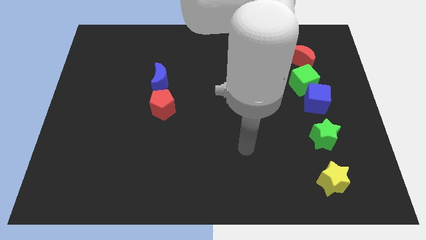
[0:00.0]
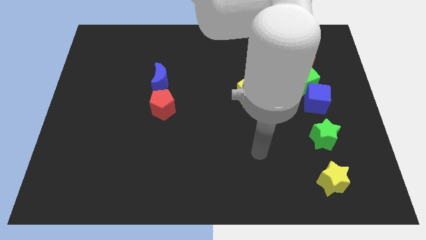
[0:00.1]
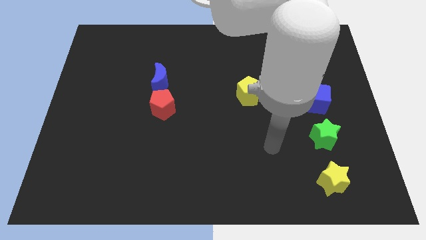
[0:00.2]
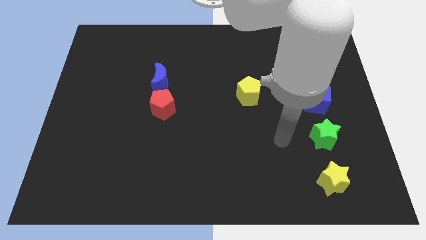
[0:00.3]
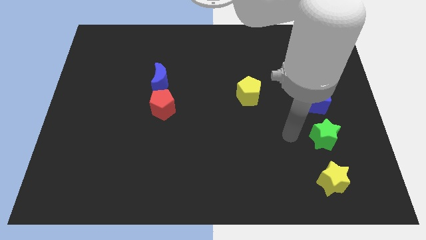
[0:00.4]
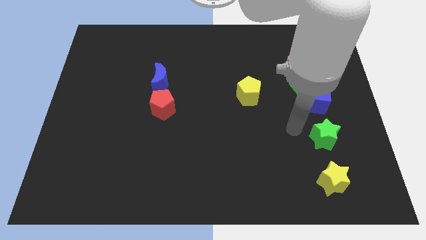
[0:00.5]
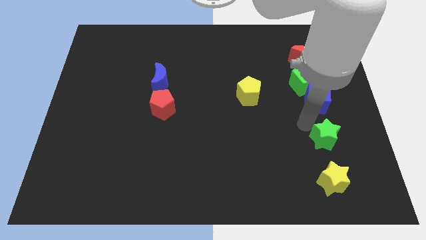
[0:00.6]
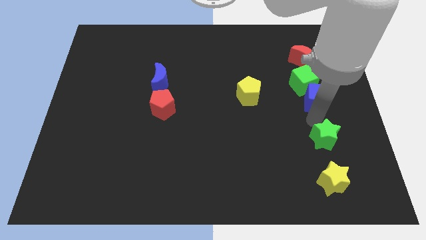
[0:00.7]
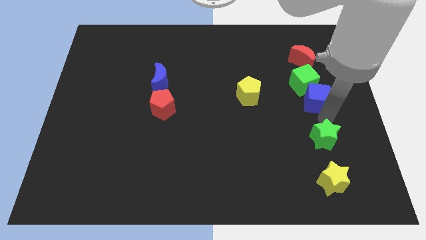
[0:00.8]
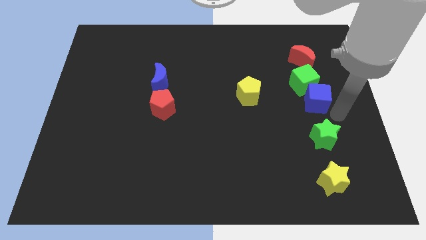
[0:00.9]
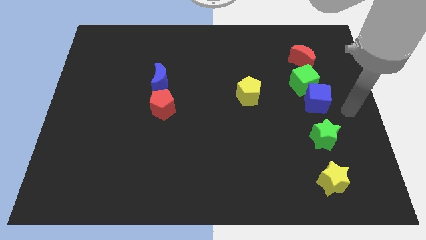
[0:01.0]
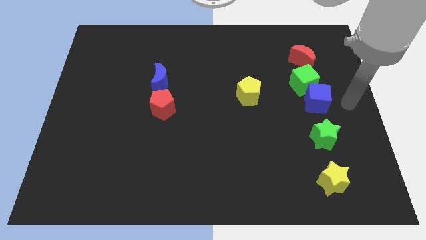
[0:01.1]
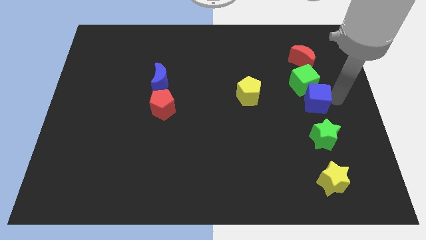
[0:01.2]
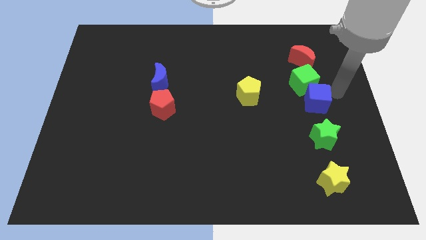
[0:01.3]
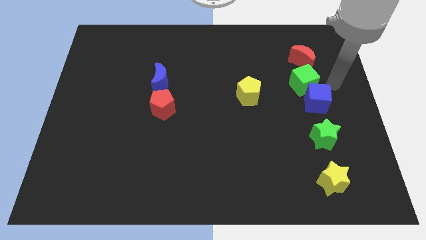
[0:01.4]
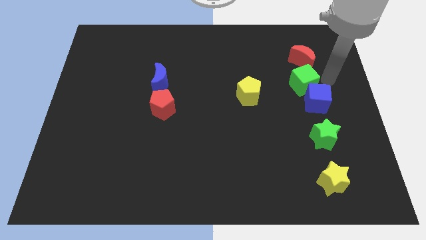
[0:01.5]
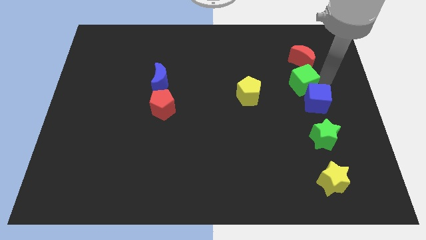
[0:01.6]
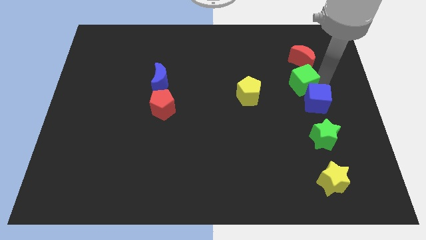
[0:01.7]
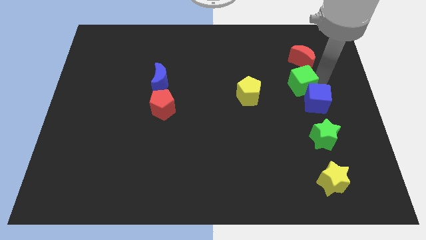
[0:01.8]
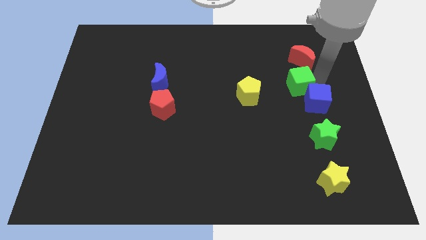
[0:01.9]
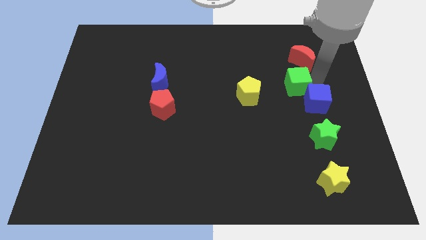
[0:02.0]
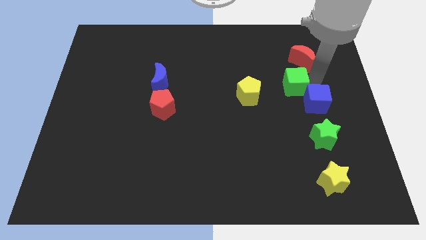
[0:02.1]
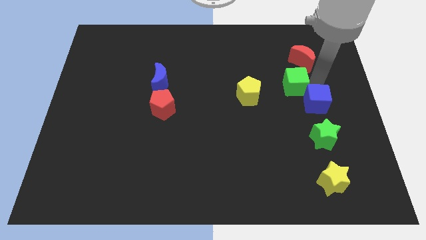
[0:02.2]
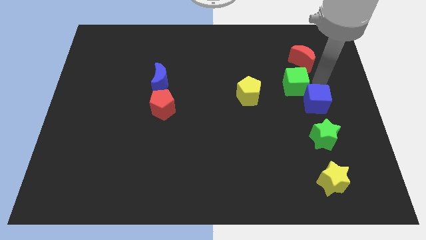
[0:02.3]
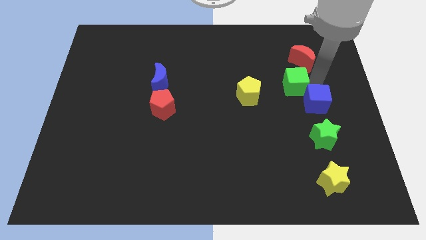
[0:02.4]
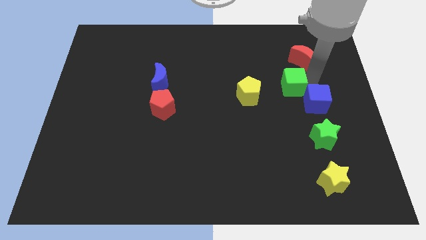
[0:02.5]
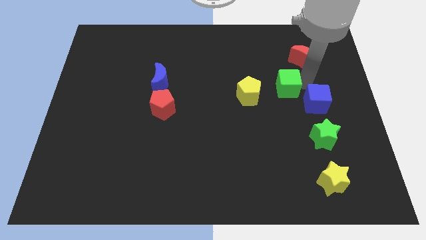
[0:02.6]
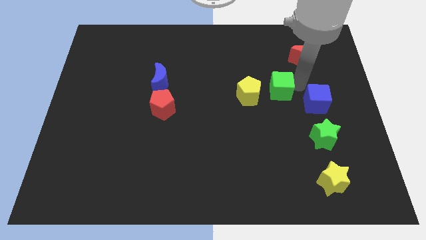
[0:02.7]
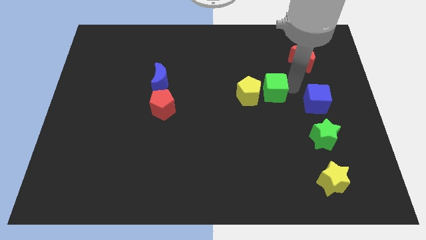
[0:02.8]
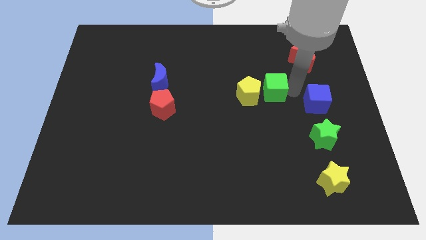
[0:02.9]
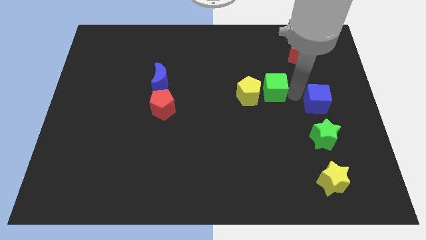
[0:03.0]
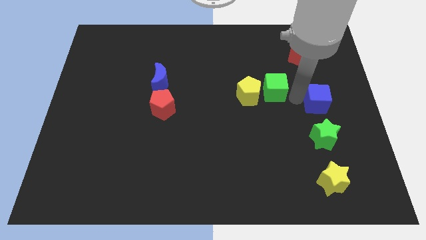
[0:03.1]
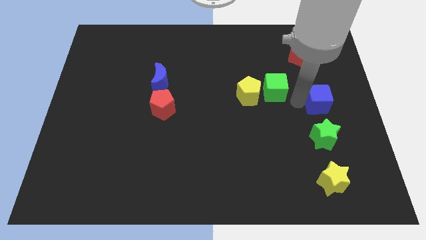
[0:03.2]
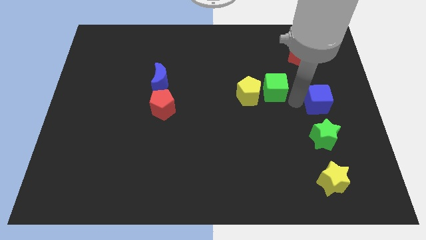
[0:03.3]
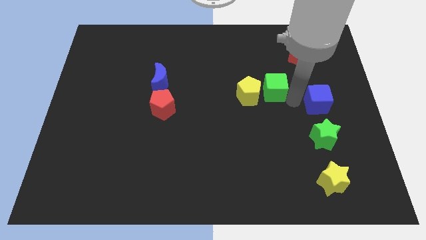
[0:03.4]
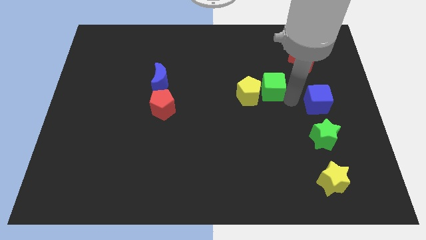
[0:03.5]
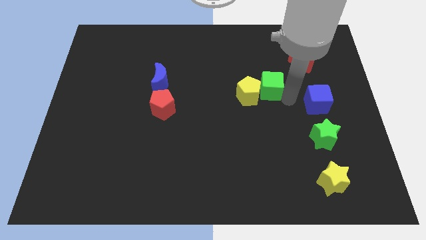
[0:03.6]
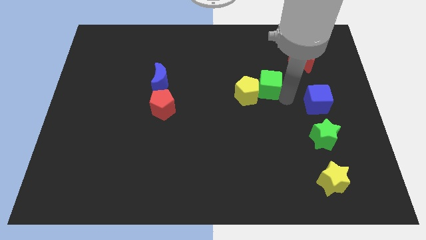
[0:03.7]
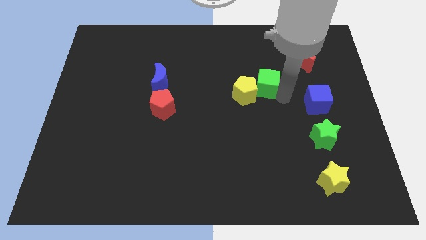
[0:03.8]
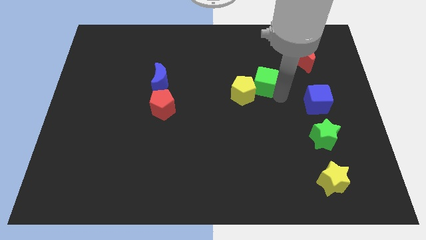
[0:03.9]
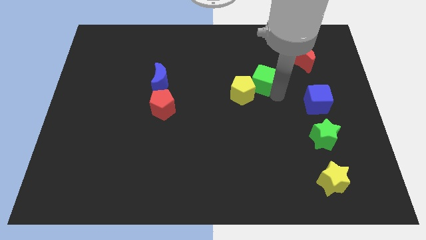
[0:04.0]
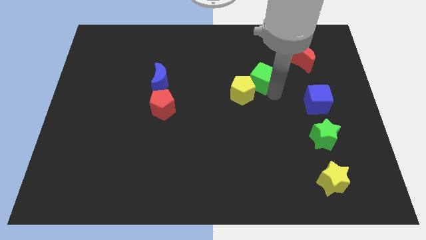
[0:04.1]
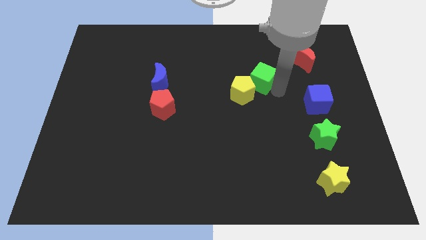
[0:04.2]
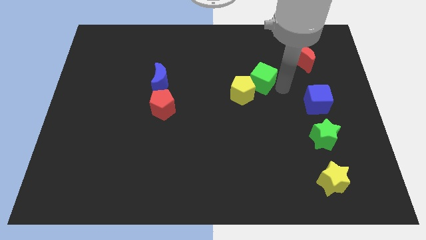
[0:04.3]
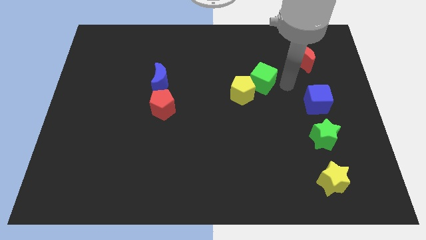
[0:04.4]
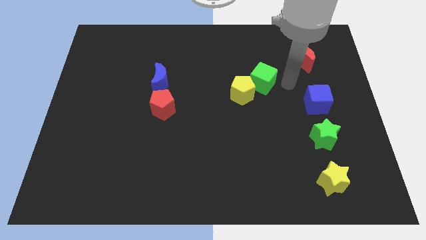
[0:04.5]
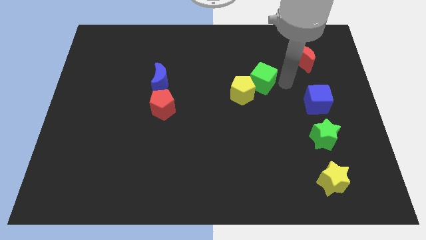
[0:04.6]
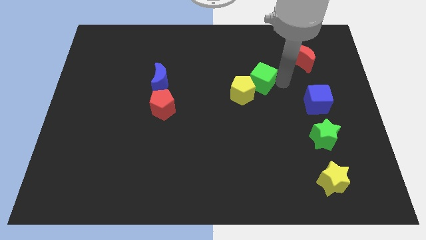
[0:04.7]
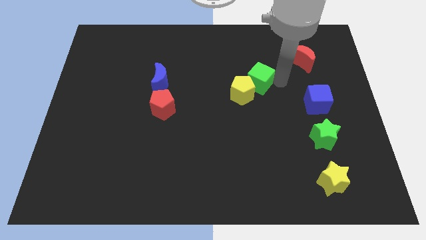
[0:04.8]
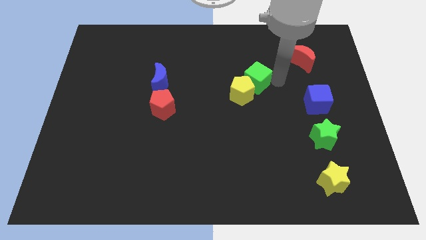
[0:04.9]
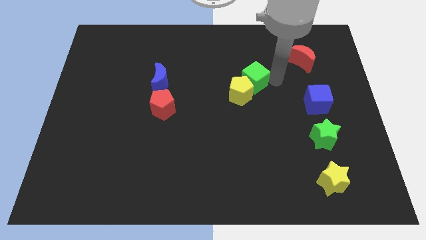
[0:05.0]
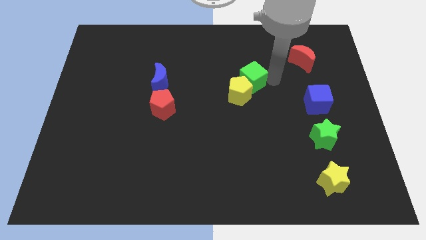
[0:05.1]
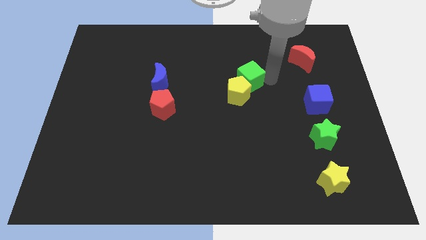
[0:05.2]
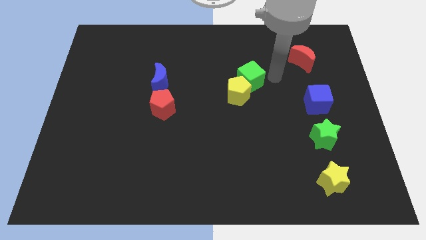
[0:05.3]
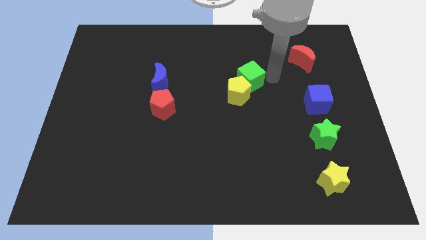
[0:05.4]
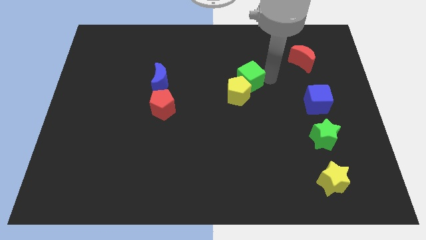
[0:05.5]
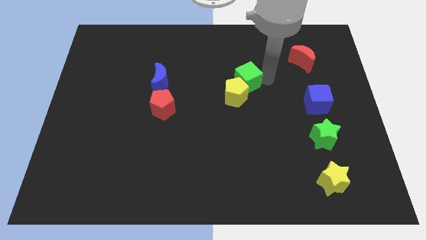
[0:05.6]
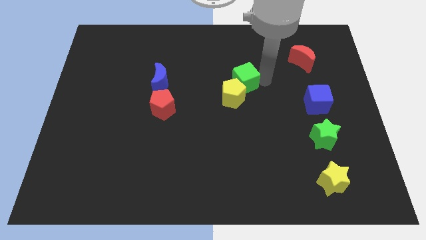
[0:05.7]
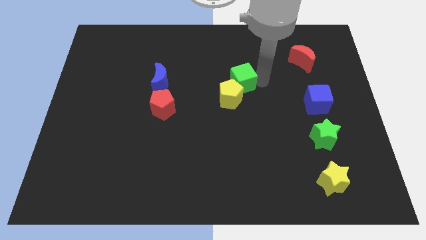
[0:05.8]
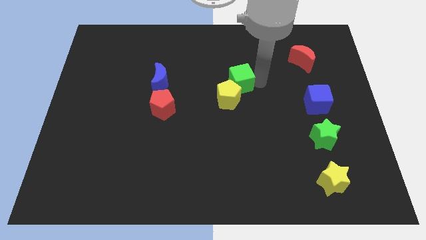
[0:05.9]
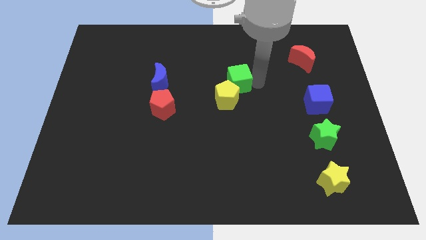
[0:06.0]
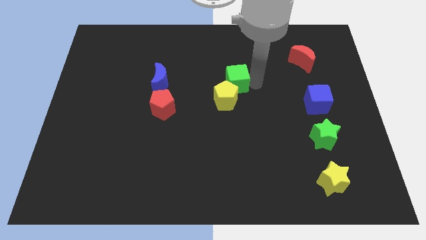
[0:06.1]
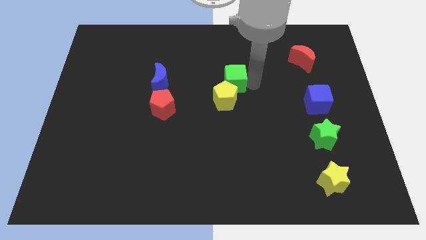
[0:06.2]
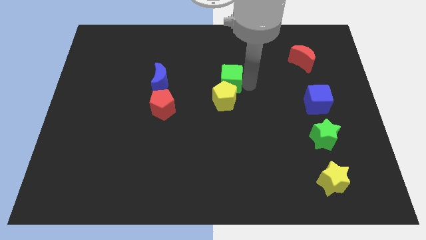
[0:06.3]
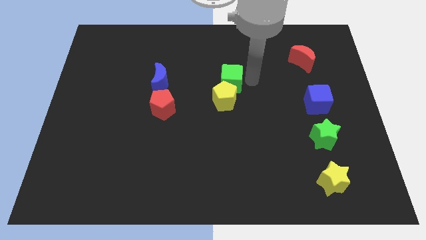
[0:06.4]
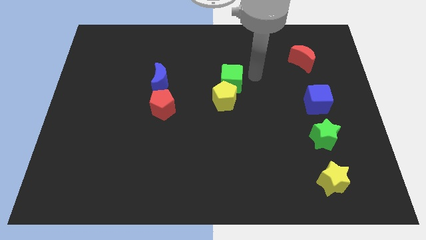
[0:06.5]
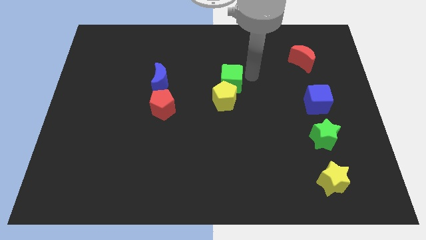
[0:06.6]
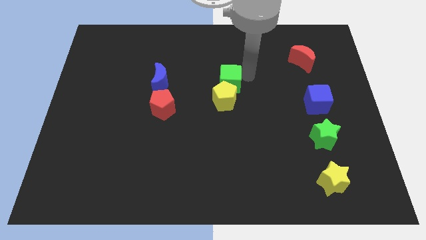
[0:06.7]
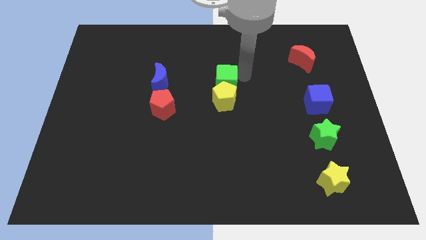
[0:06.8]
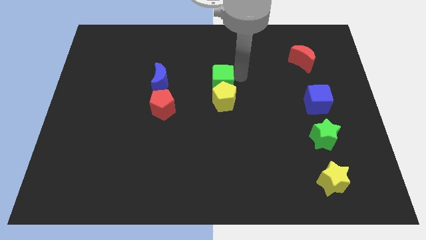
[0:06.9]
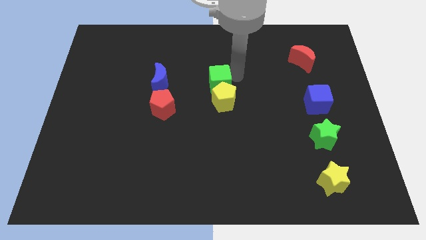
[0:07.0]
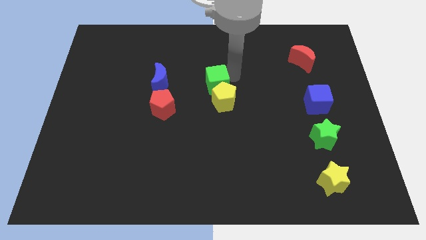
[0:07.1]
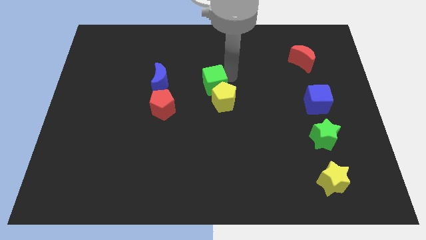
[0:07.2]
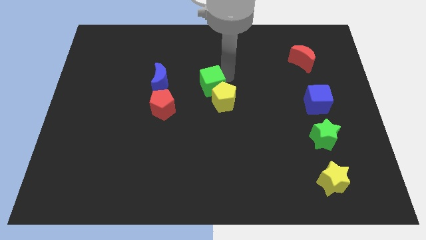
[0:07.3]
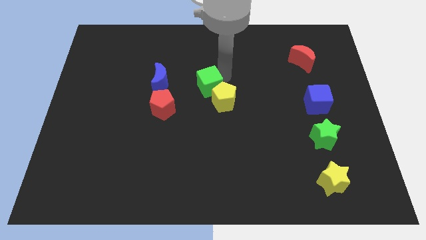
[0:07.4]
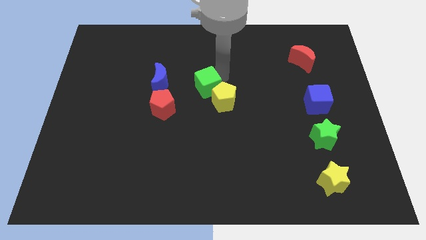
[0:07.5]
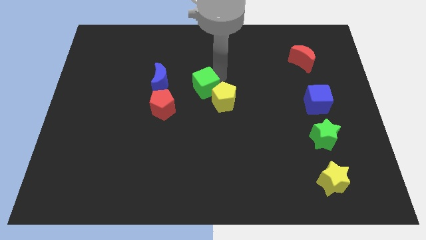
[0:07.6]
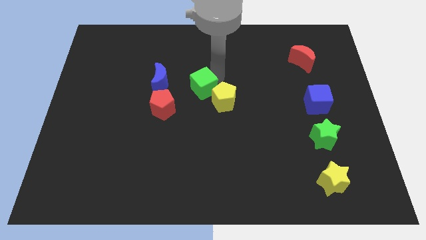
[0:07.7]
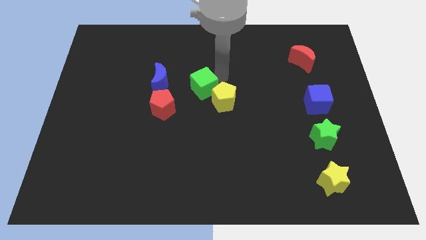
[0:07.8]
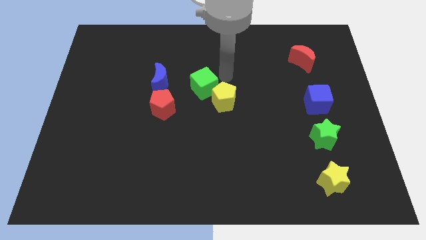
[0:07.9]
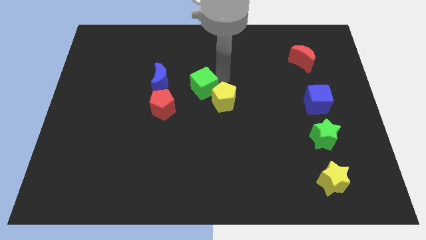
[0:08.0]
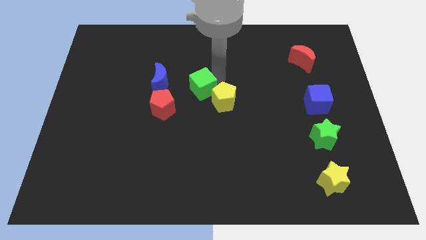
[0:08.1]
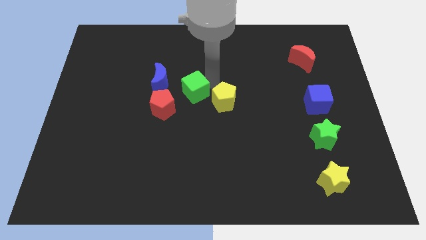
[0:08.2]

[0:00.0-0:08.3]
move the green cube to the bottom right side of the blue moon
